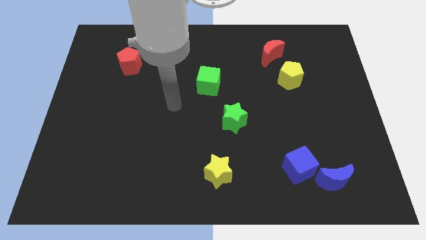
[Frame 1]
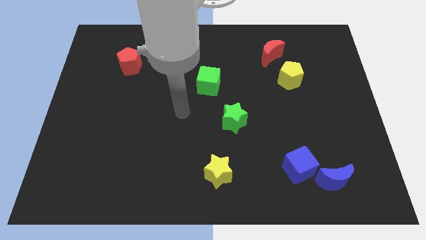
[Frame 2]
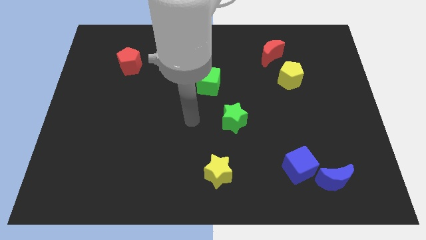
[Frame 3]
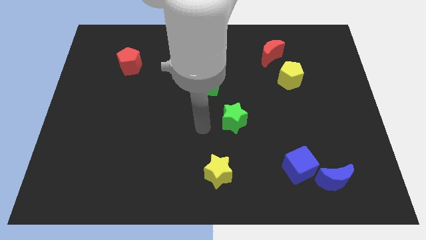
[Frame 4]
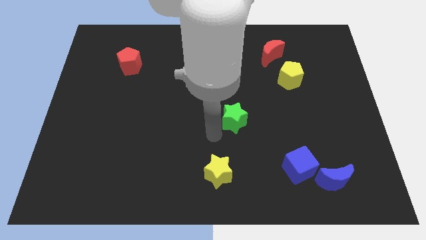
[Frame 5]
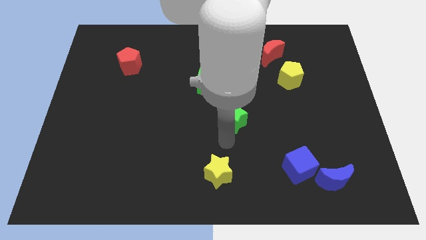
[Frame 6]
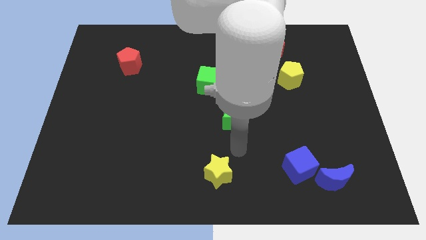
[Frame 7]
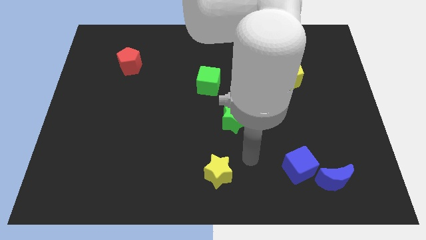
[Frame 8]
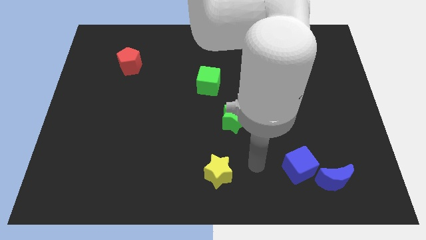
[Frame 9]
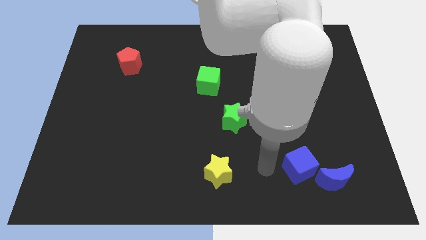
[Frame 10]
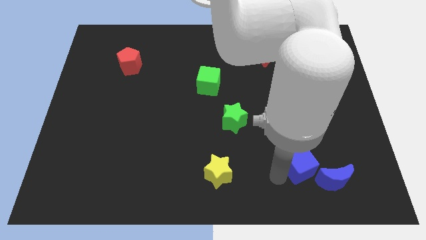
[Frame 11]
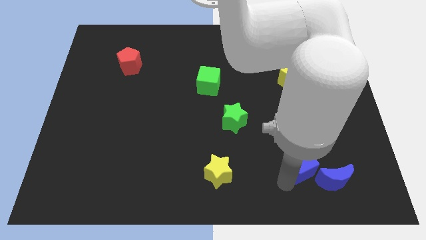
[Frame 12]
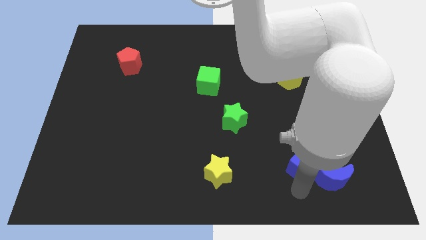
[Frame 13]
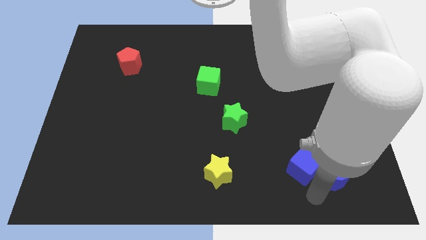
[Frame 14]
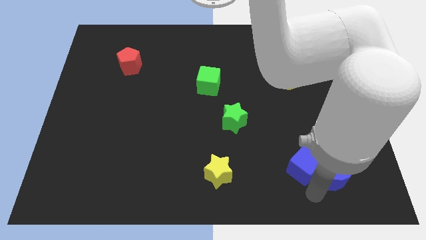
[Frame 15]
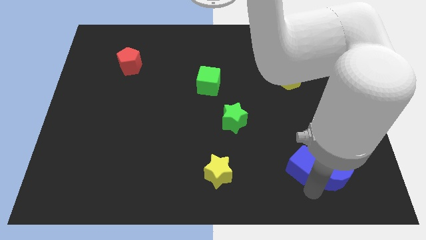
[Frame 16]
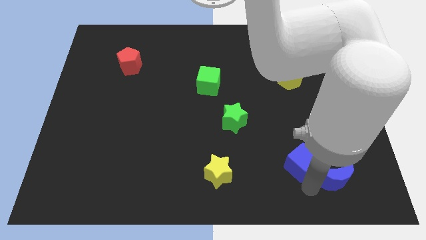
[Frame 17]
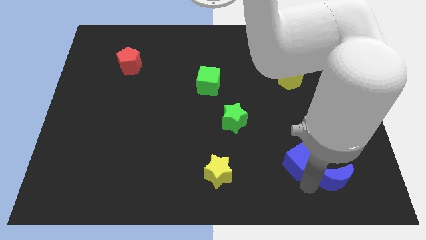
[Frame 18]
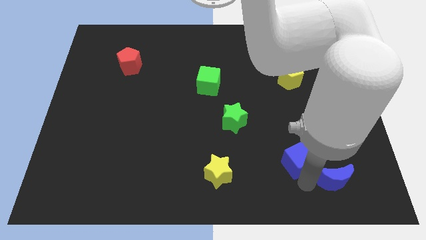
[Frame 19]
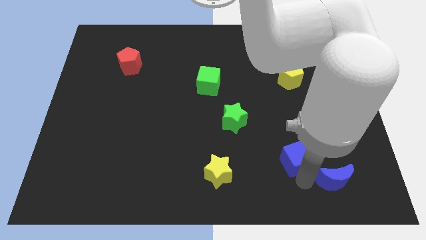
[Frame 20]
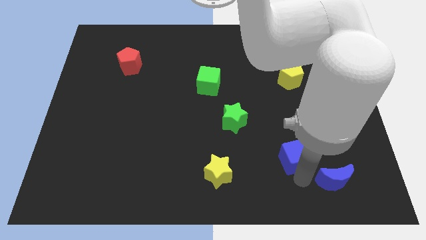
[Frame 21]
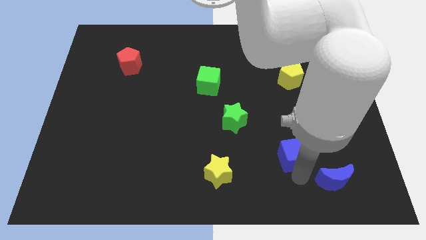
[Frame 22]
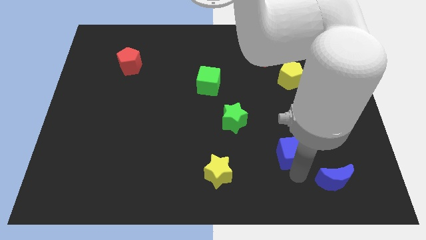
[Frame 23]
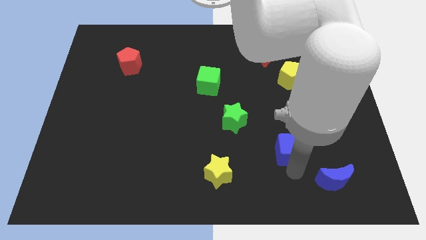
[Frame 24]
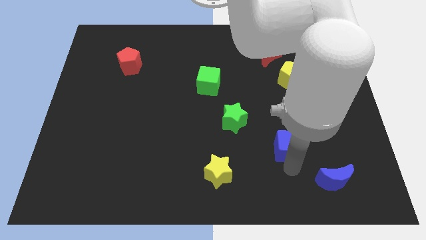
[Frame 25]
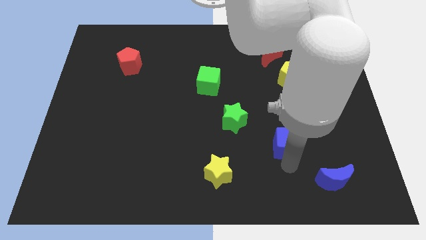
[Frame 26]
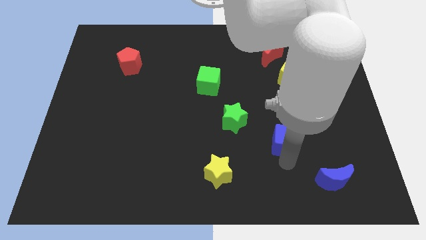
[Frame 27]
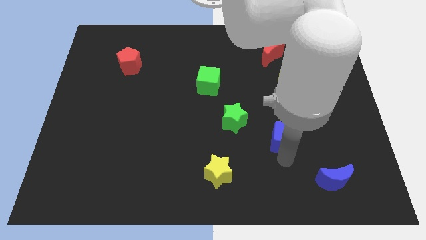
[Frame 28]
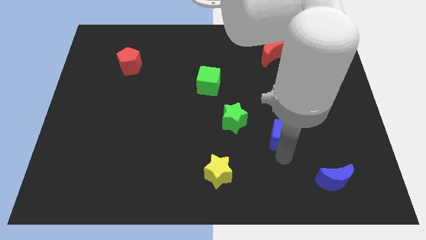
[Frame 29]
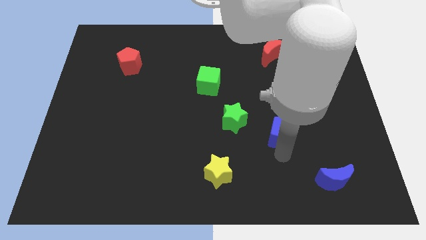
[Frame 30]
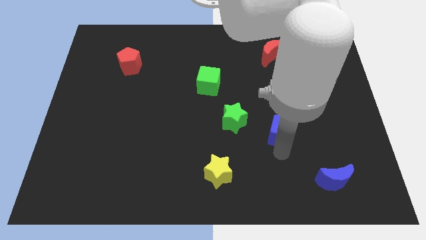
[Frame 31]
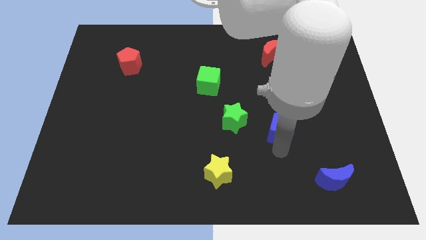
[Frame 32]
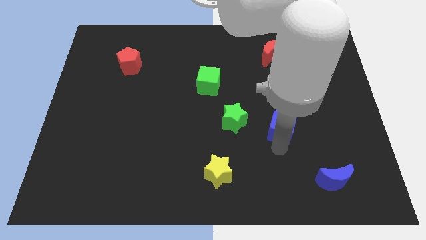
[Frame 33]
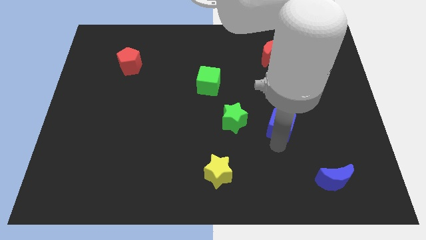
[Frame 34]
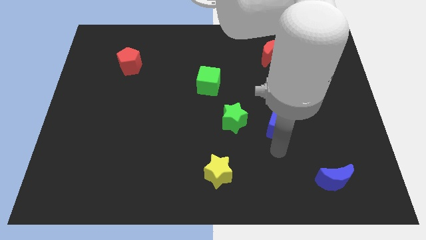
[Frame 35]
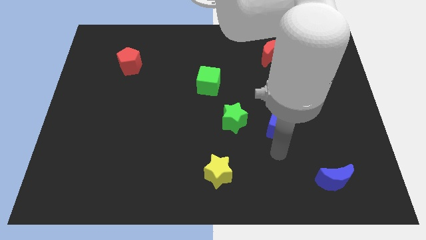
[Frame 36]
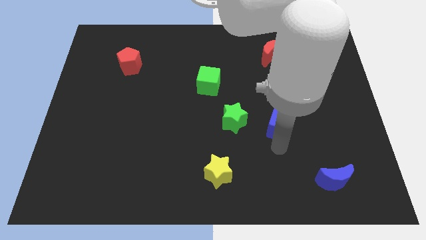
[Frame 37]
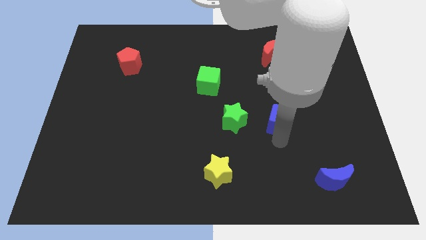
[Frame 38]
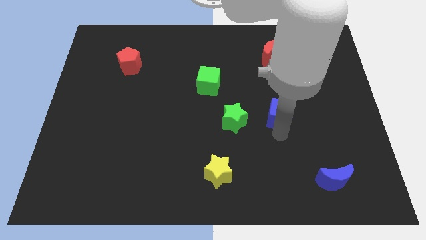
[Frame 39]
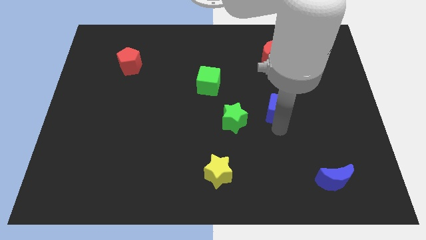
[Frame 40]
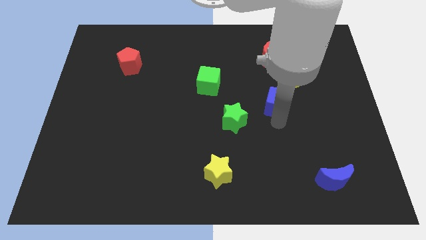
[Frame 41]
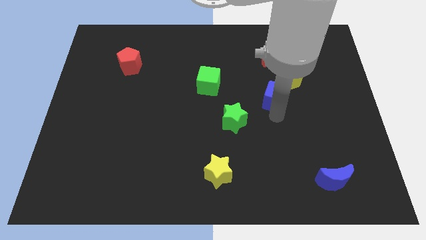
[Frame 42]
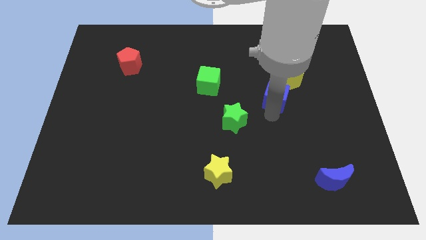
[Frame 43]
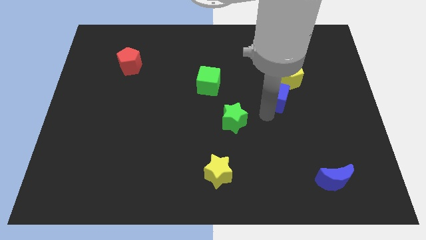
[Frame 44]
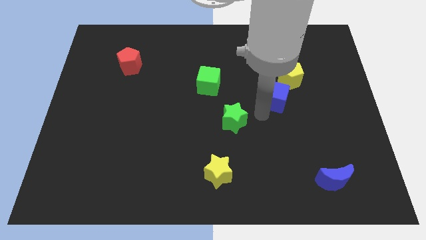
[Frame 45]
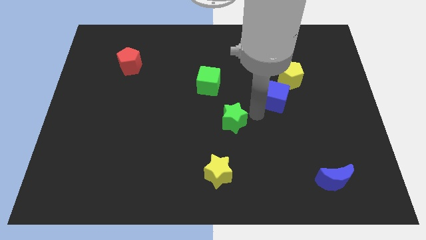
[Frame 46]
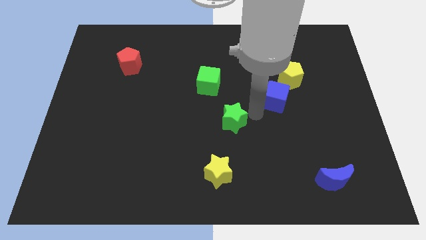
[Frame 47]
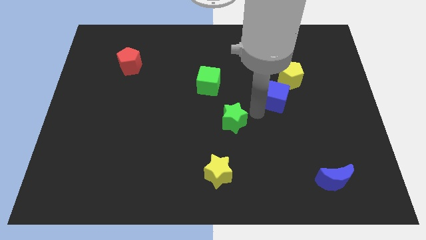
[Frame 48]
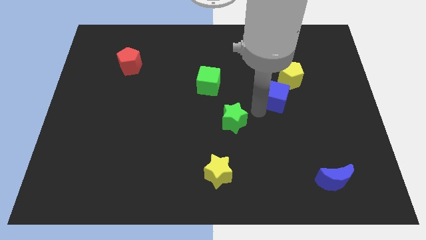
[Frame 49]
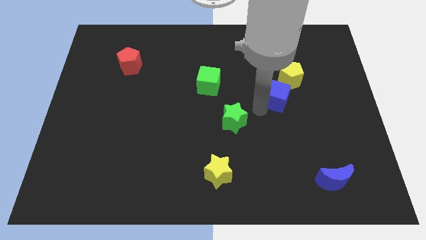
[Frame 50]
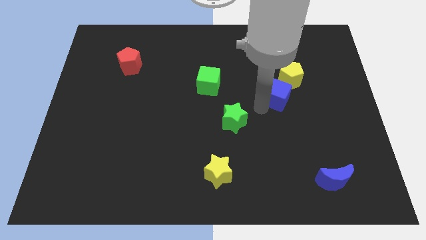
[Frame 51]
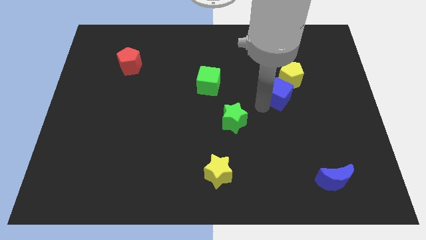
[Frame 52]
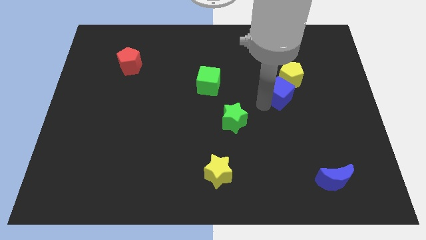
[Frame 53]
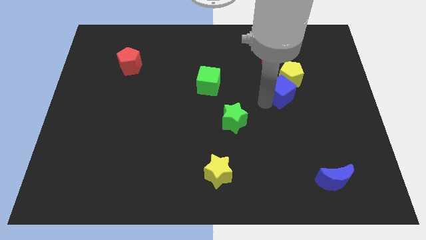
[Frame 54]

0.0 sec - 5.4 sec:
put the blue cube next to the yellow pentagon

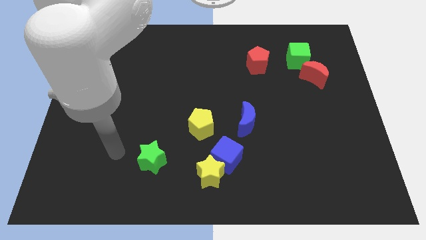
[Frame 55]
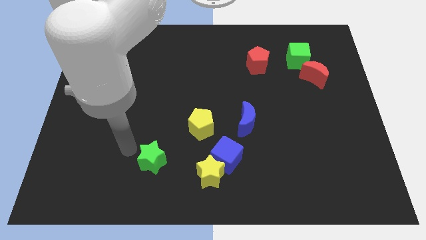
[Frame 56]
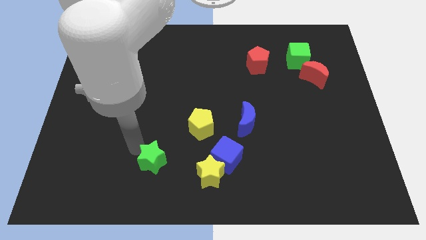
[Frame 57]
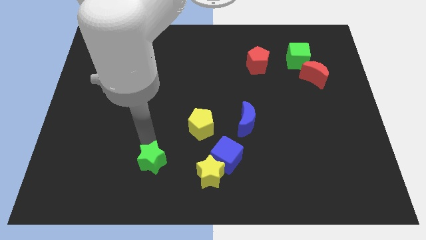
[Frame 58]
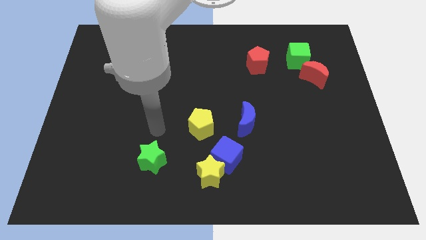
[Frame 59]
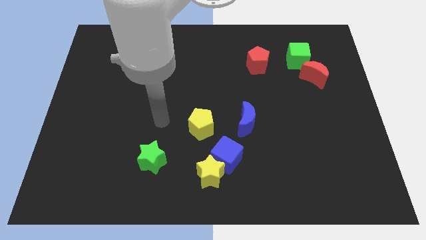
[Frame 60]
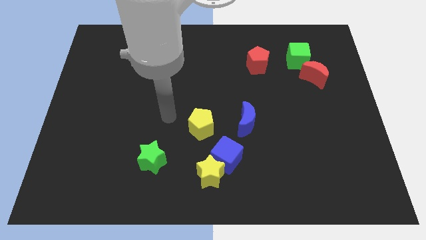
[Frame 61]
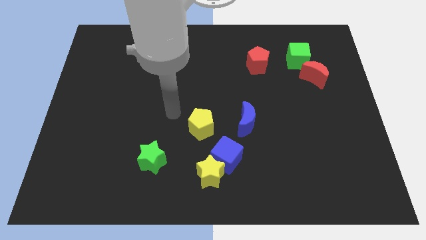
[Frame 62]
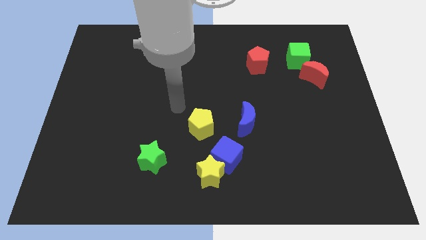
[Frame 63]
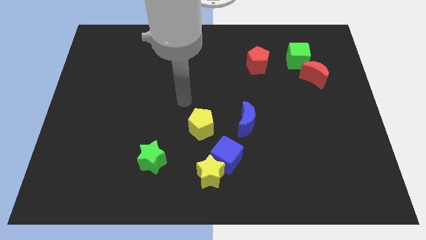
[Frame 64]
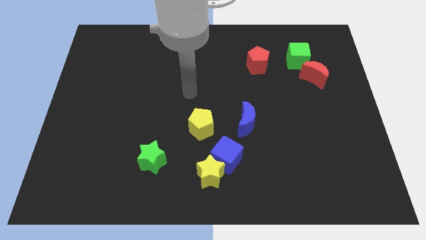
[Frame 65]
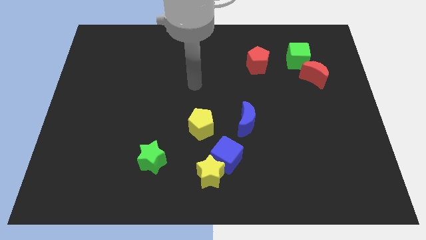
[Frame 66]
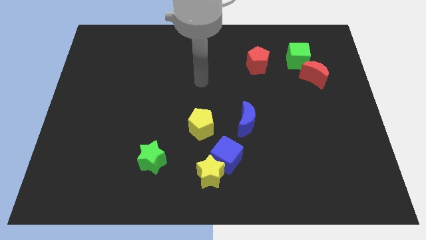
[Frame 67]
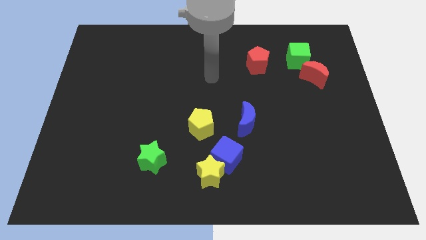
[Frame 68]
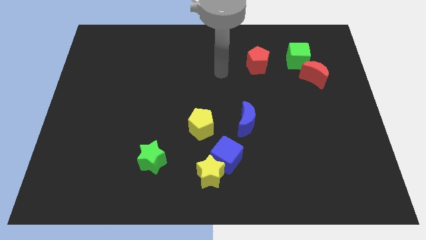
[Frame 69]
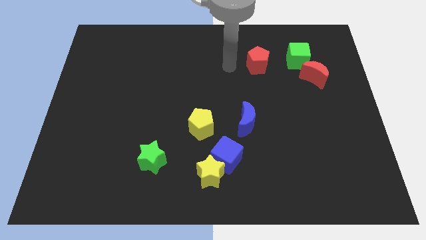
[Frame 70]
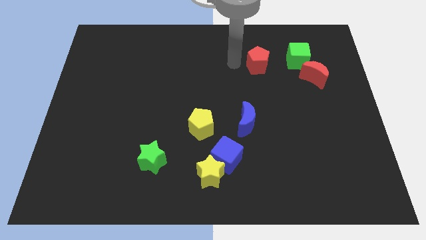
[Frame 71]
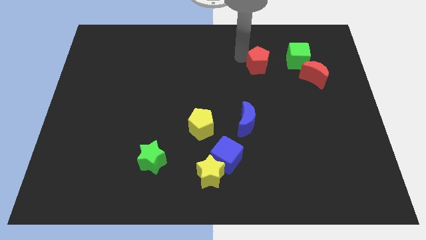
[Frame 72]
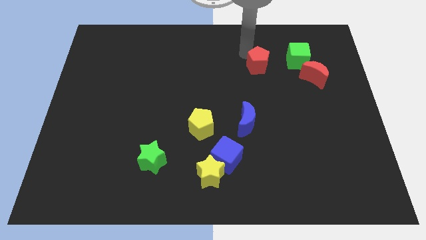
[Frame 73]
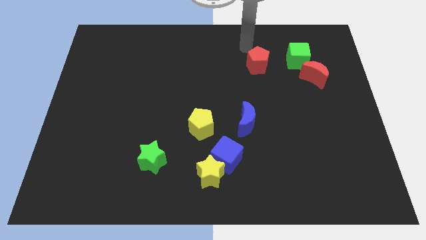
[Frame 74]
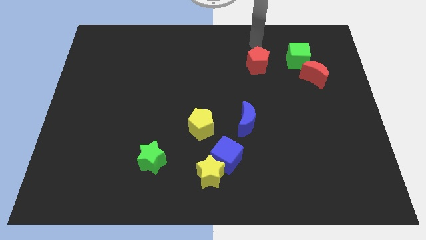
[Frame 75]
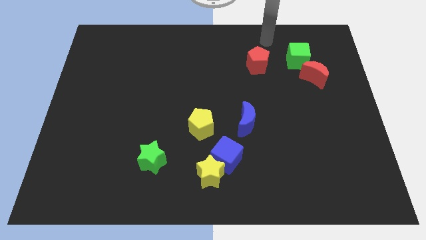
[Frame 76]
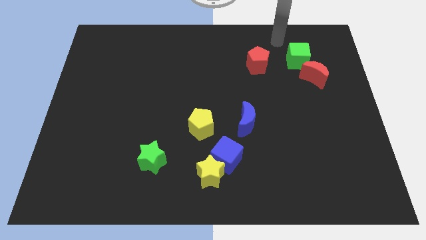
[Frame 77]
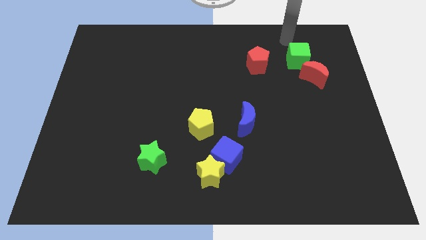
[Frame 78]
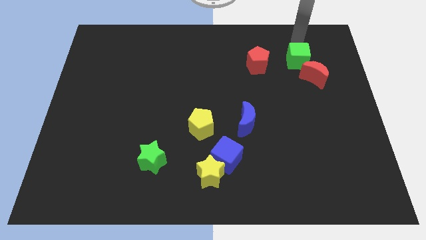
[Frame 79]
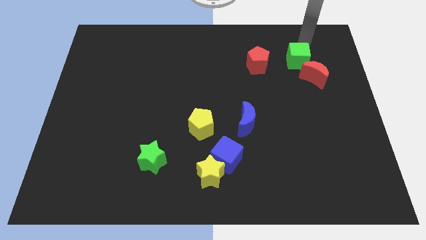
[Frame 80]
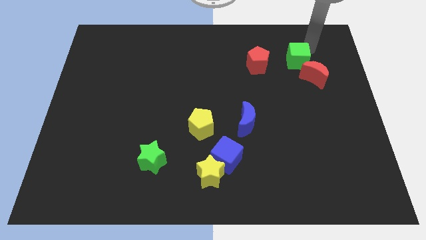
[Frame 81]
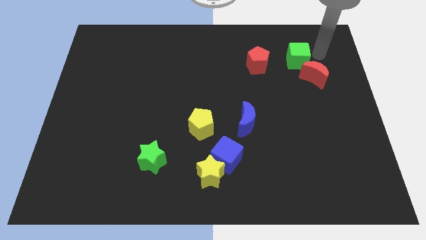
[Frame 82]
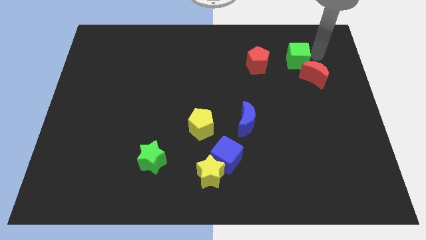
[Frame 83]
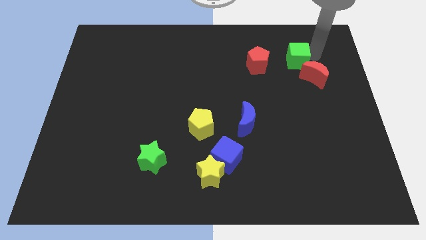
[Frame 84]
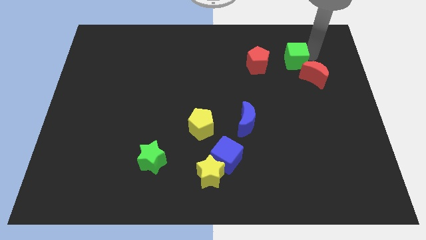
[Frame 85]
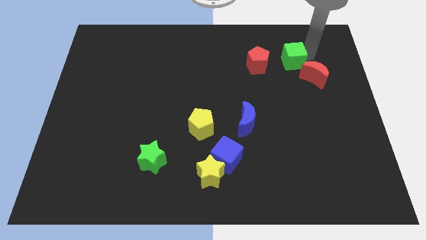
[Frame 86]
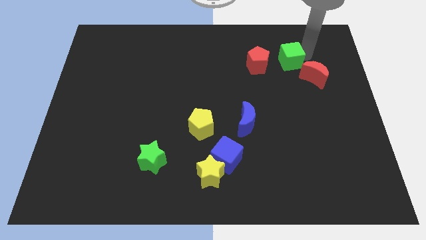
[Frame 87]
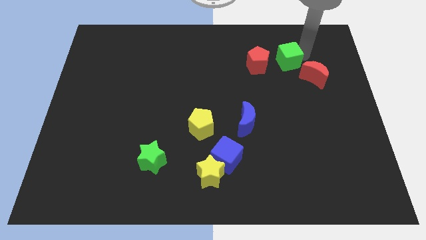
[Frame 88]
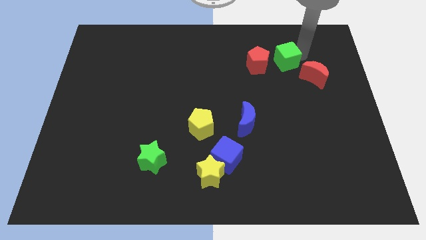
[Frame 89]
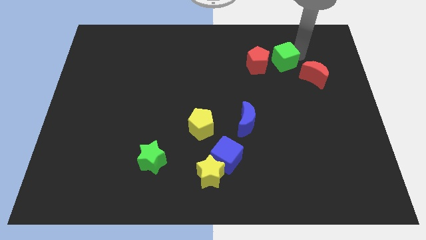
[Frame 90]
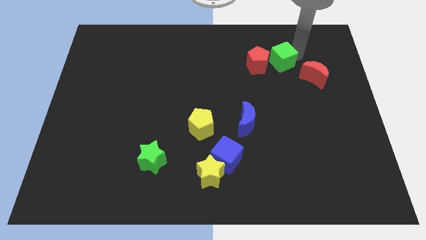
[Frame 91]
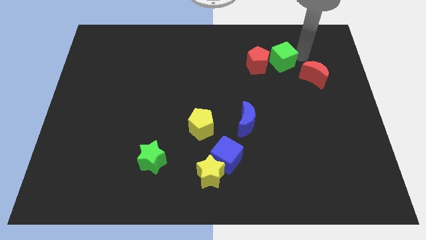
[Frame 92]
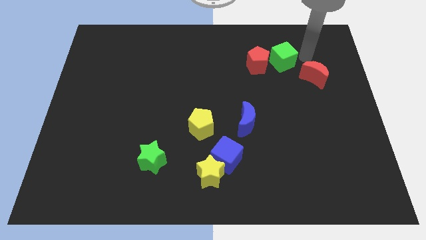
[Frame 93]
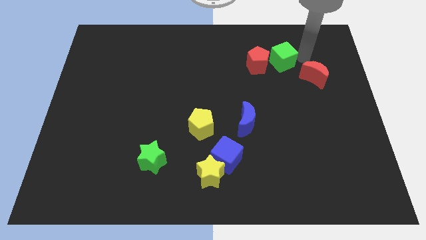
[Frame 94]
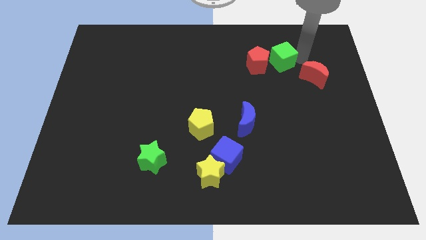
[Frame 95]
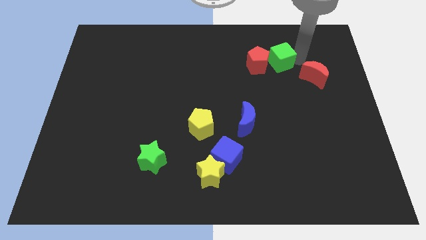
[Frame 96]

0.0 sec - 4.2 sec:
slide the green cube close to the red pentagon
